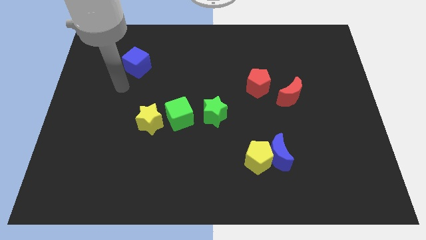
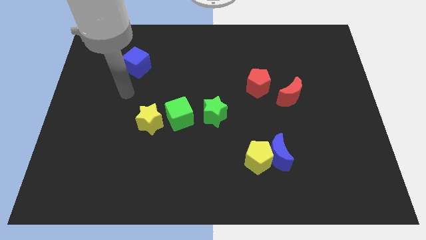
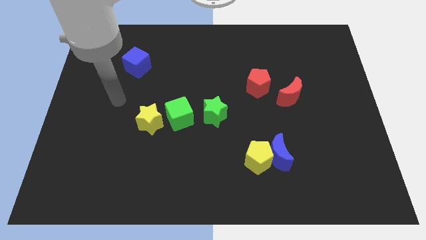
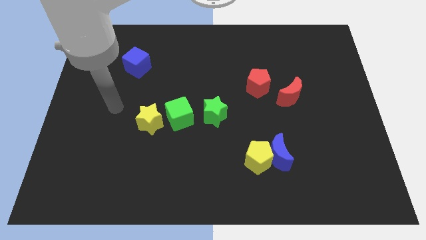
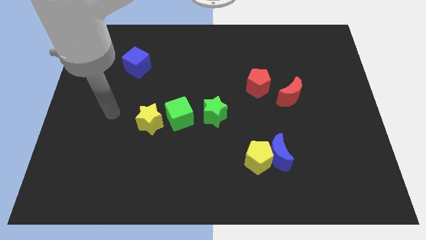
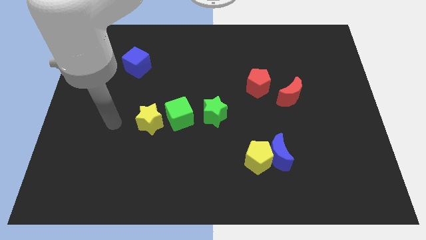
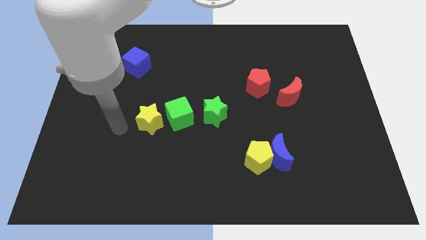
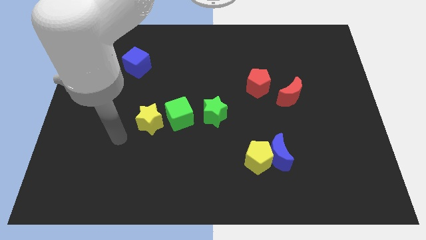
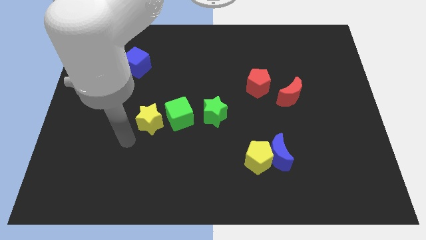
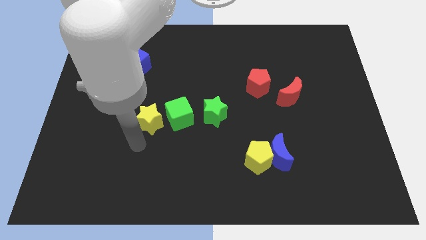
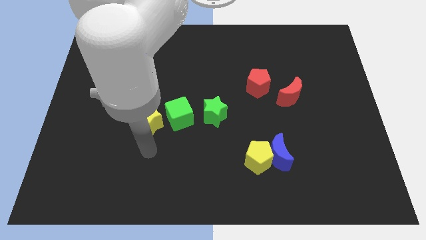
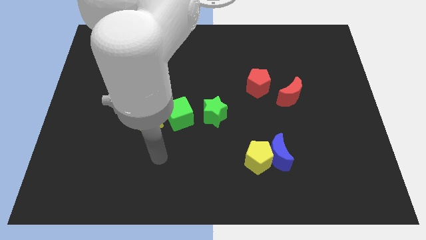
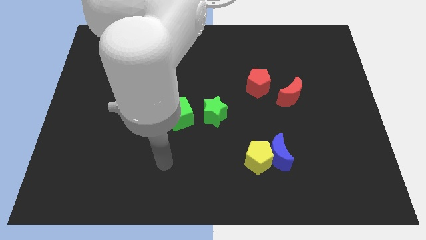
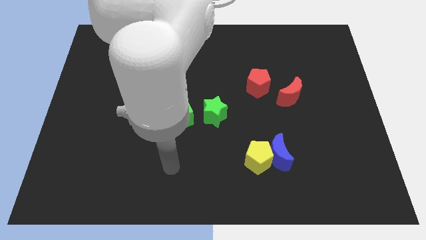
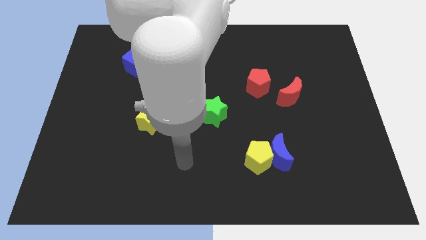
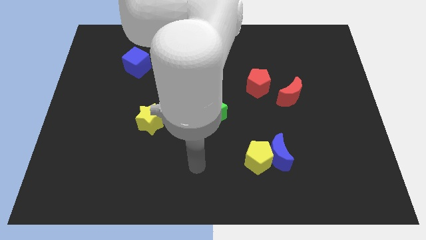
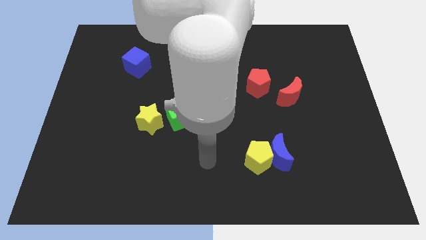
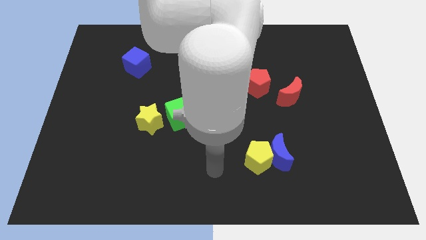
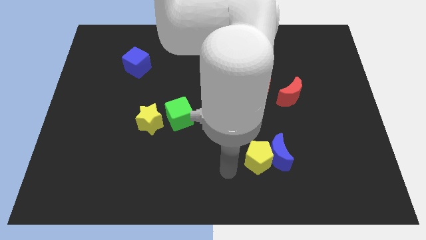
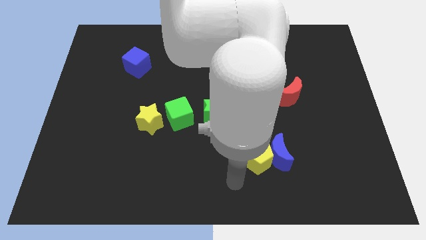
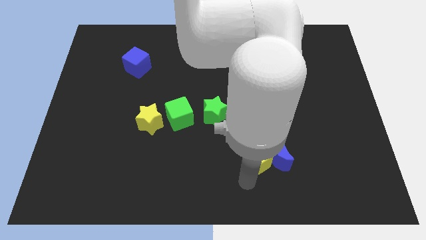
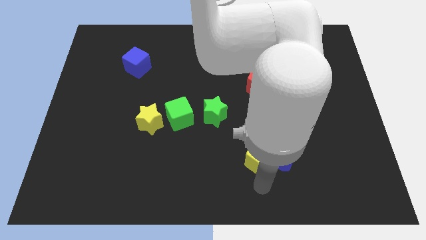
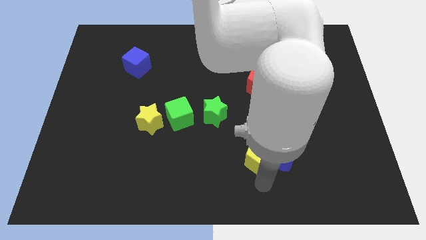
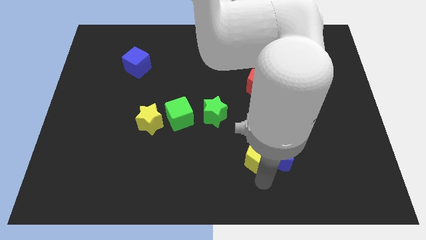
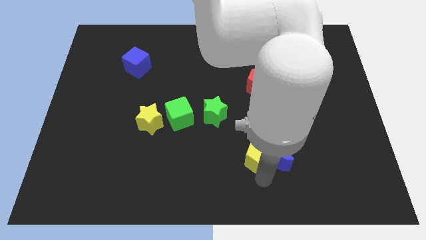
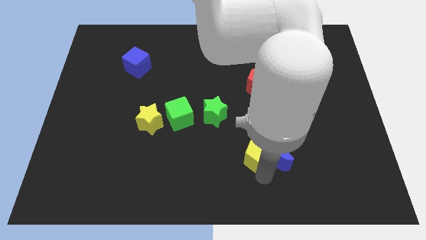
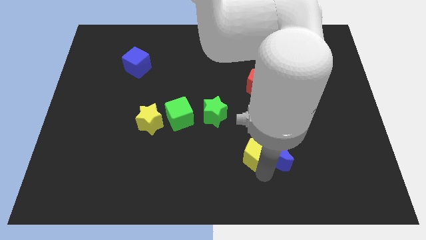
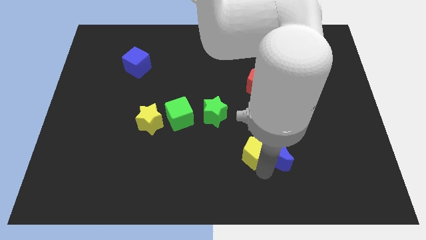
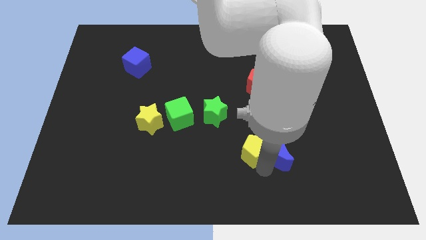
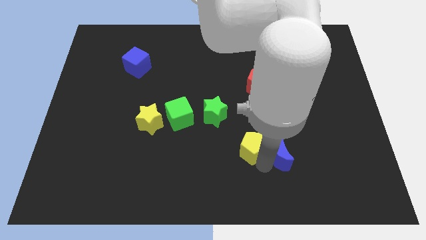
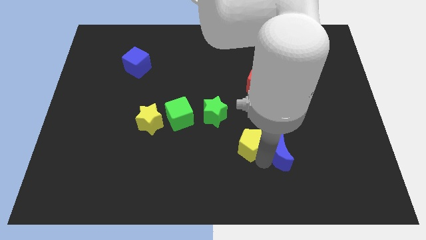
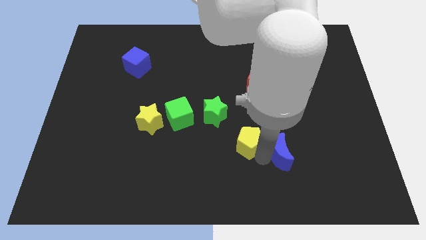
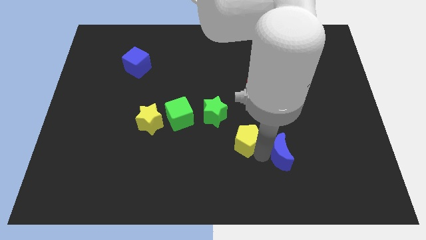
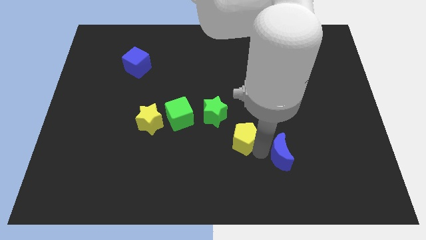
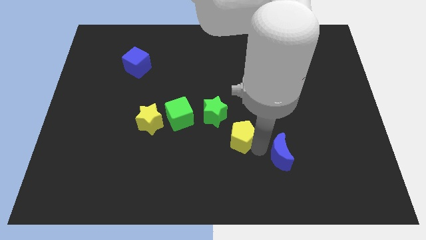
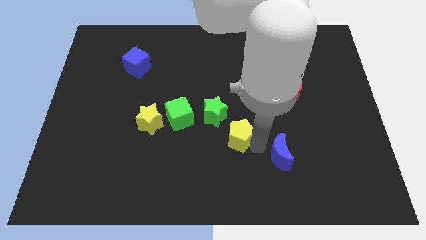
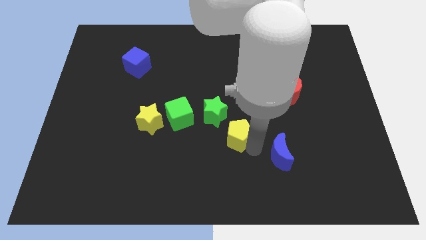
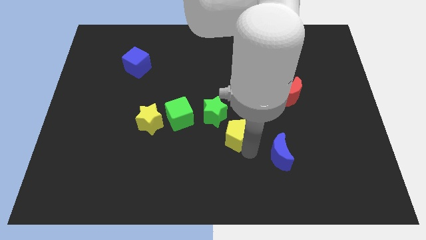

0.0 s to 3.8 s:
push the yellow pentagon up and then left slightly

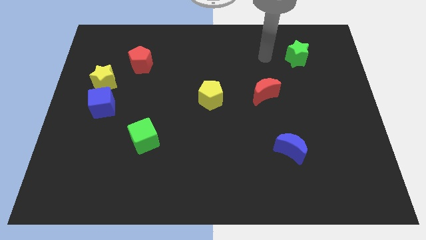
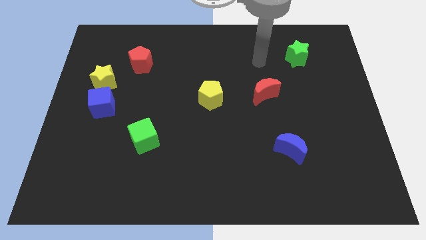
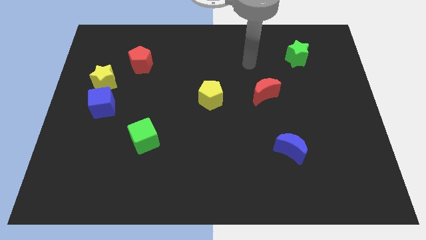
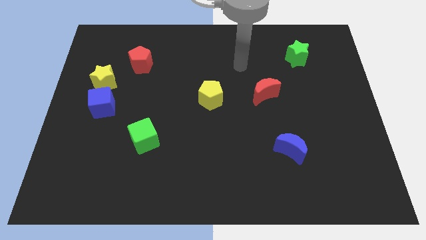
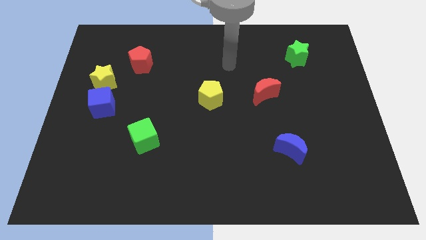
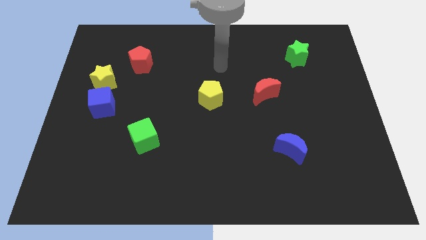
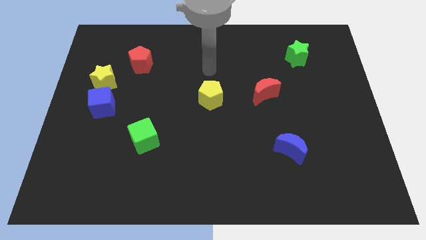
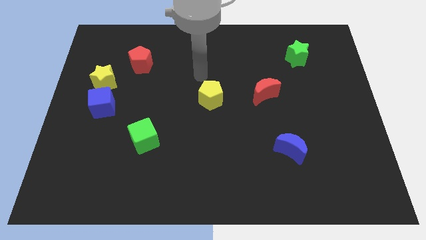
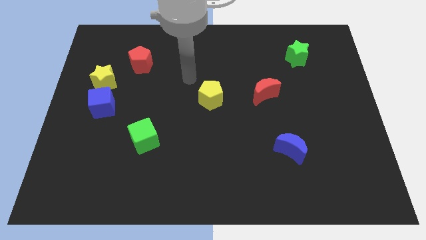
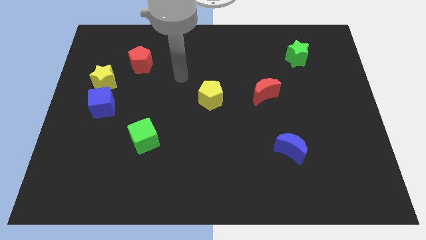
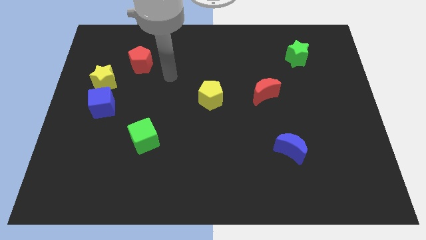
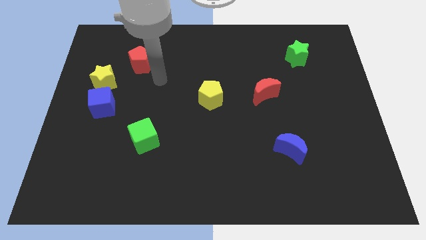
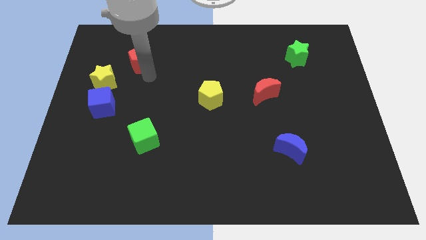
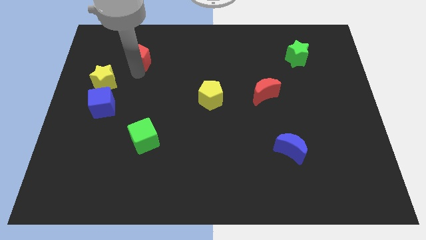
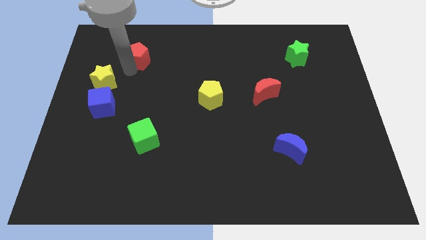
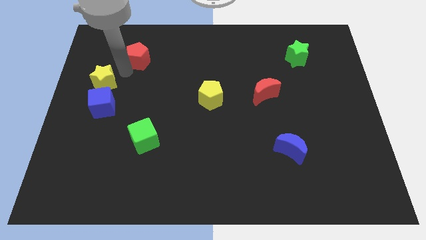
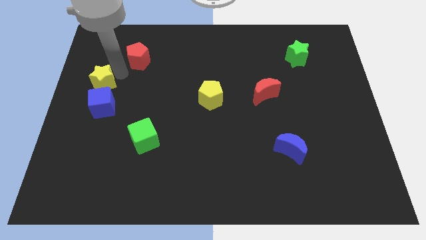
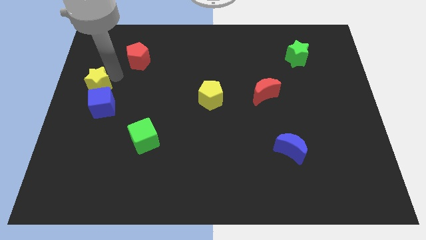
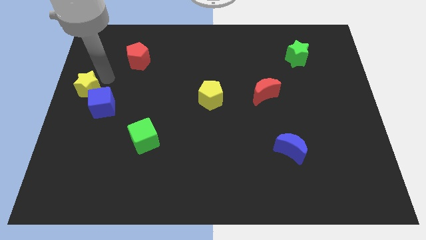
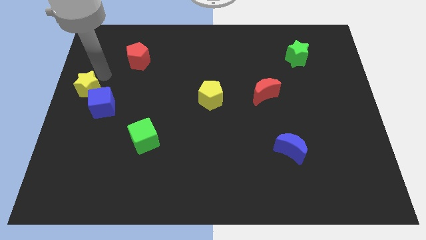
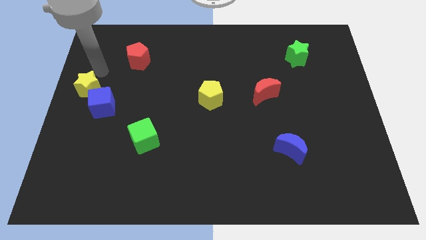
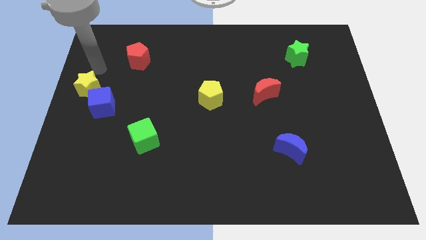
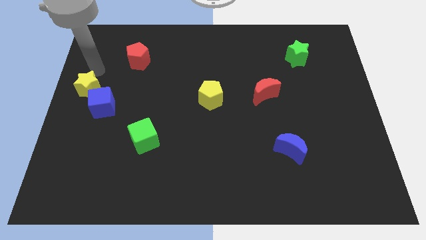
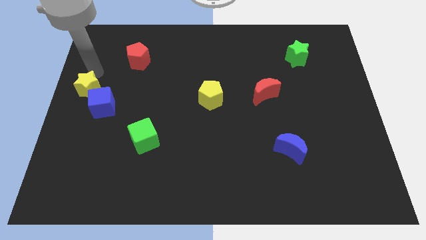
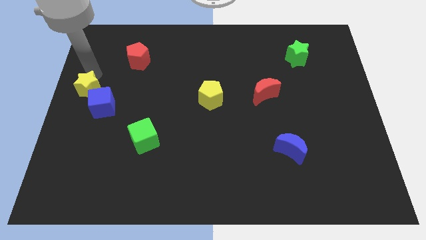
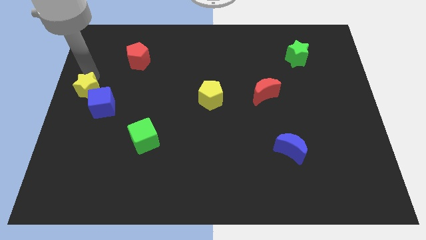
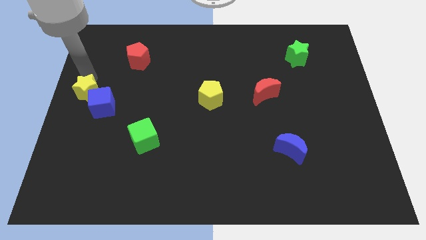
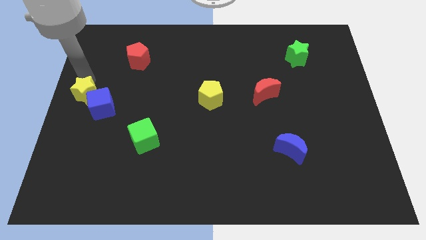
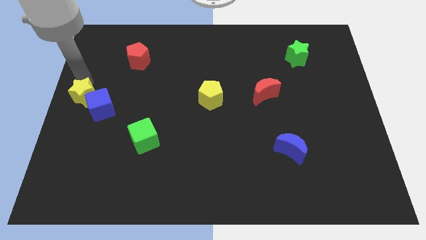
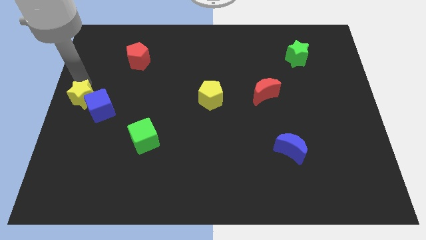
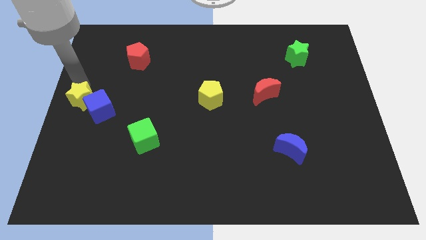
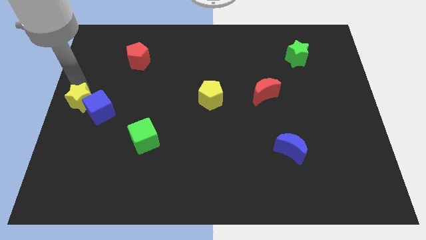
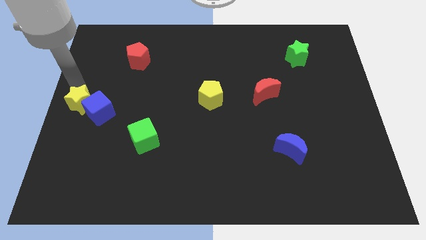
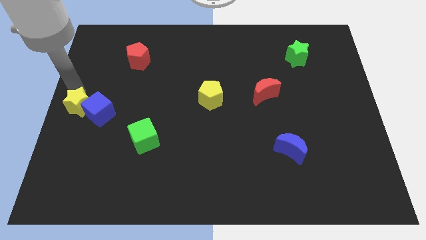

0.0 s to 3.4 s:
slightly move the yellow star downwards

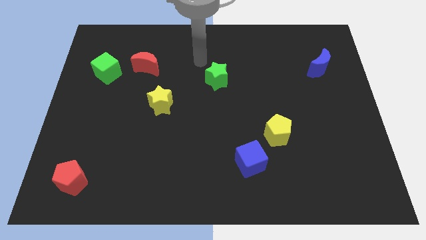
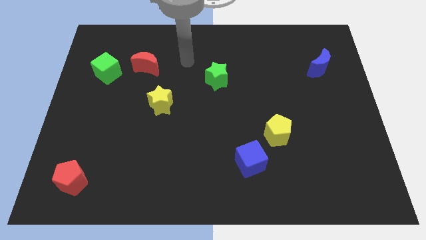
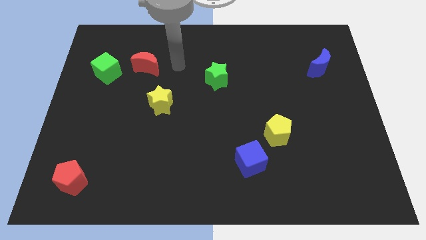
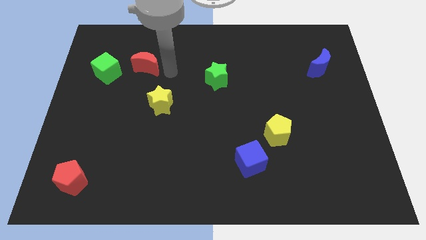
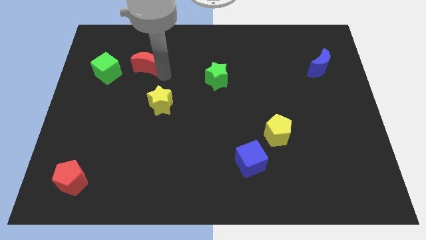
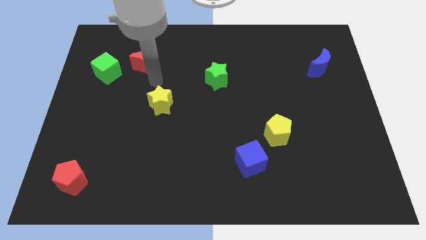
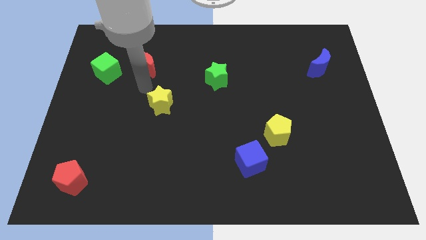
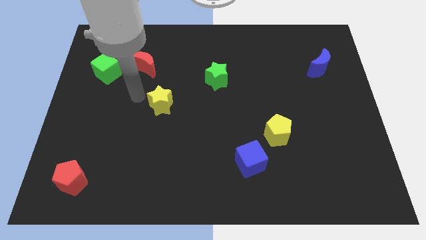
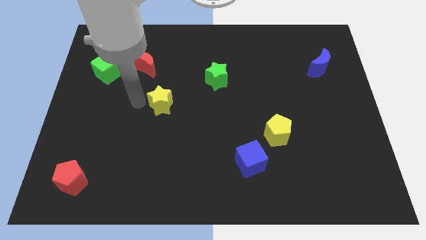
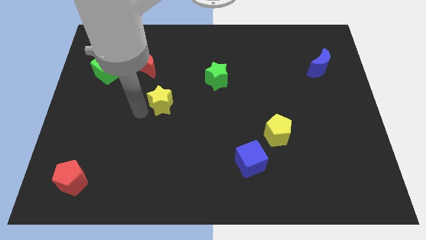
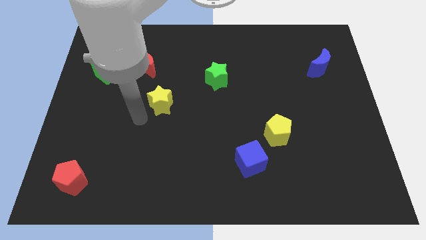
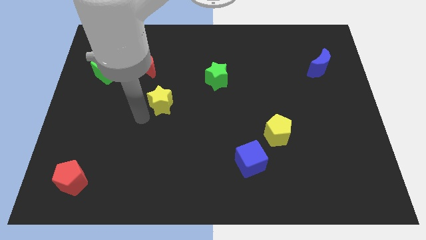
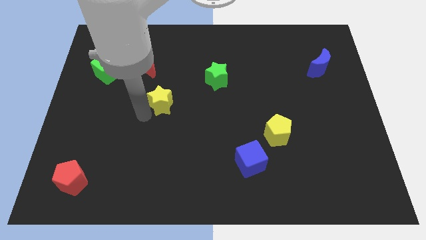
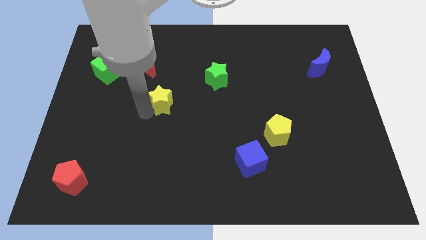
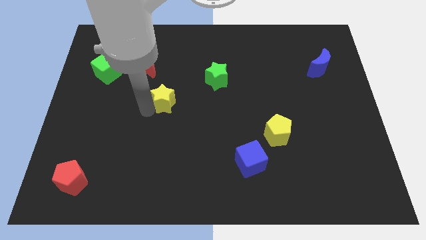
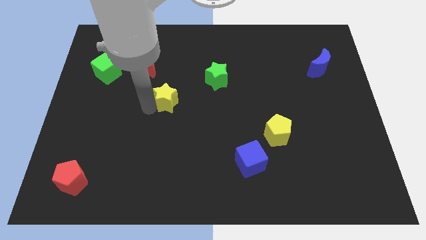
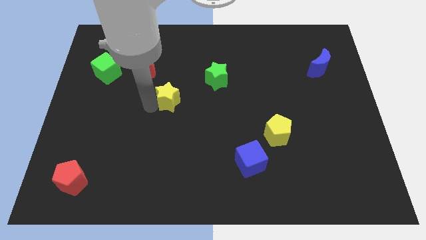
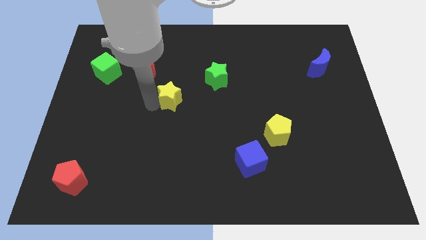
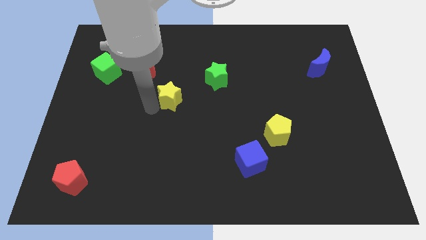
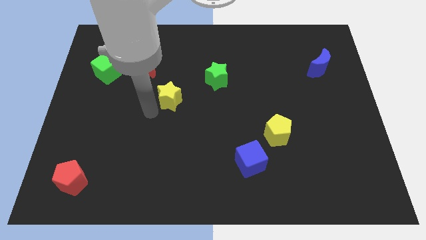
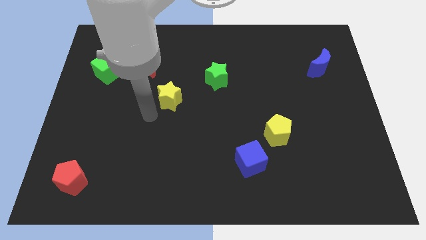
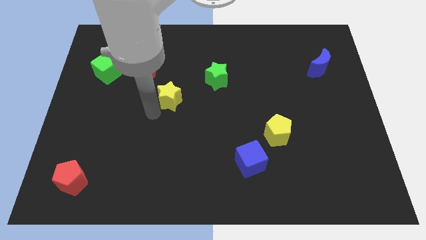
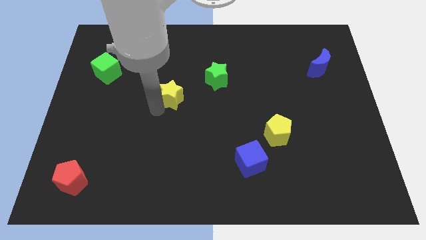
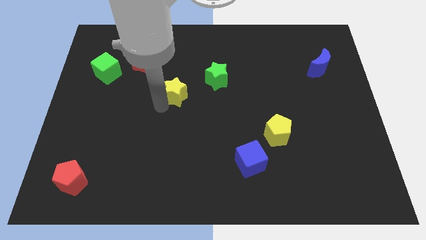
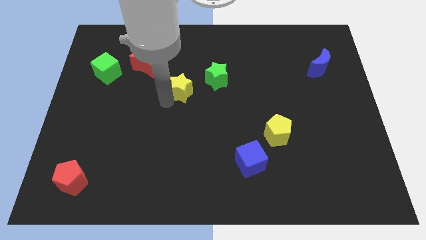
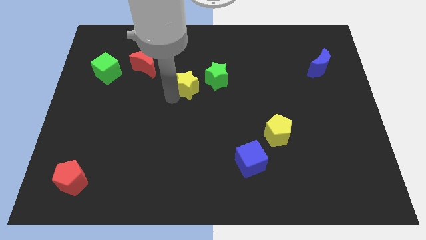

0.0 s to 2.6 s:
push the yellow star slightly up and right diagonally
